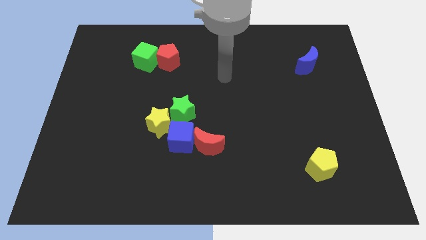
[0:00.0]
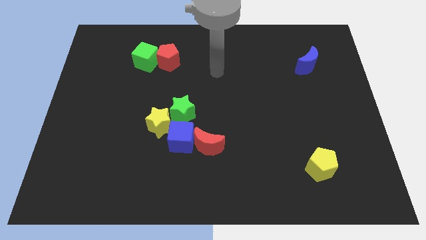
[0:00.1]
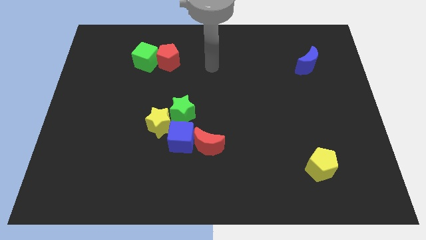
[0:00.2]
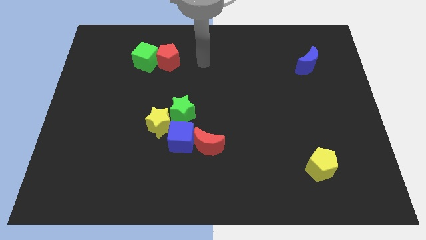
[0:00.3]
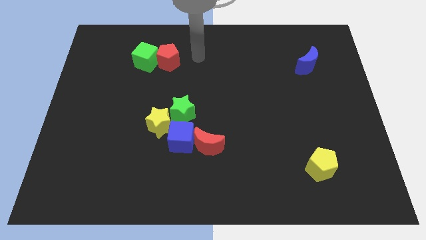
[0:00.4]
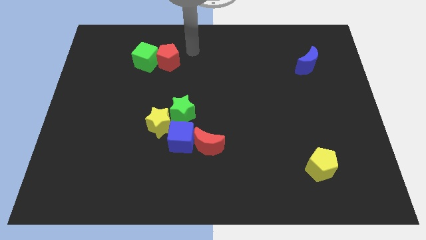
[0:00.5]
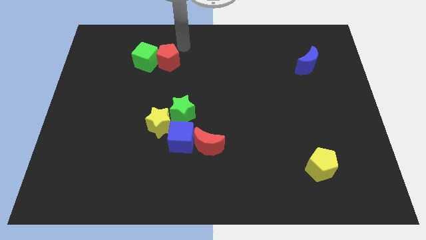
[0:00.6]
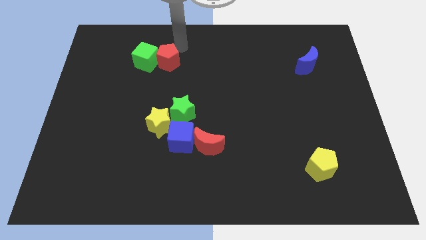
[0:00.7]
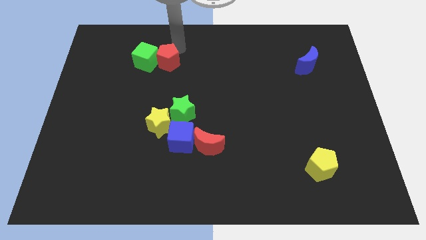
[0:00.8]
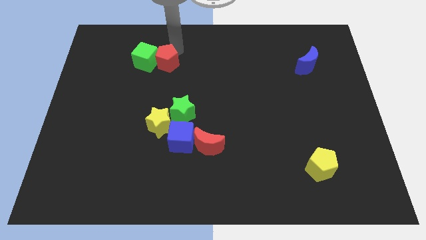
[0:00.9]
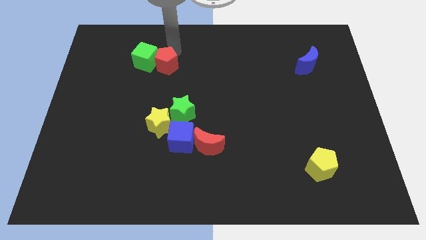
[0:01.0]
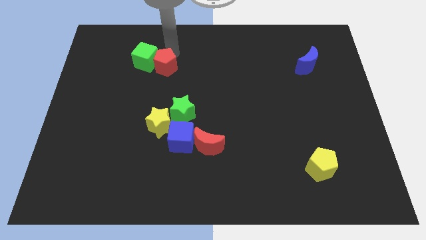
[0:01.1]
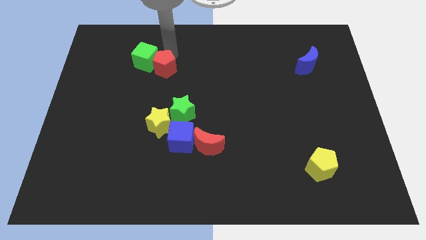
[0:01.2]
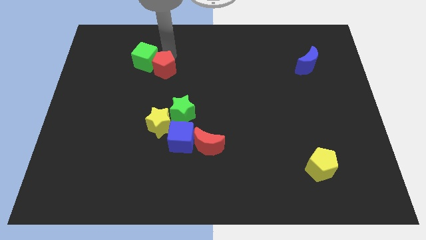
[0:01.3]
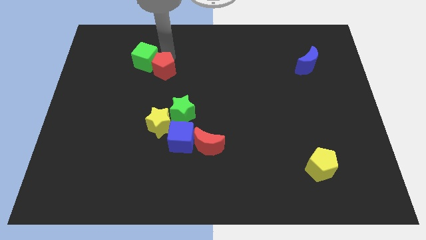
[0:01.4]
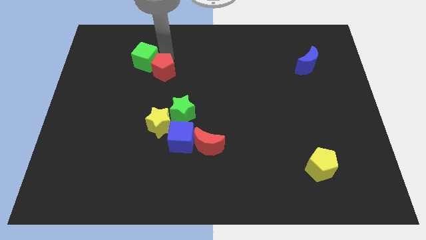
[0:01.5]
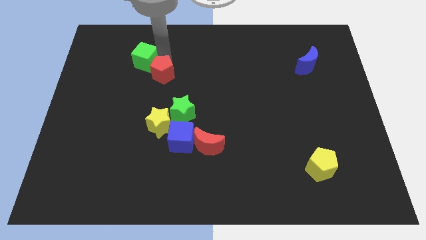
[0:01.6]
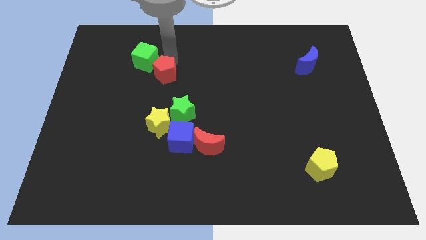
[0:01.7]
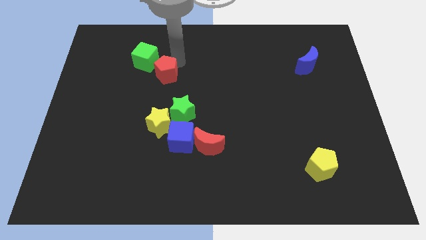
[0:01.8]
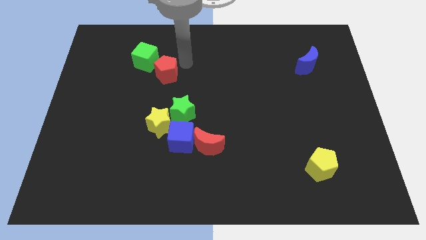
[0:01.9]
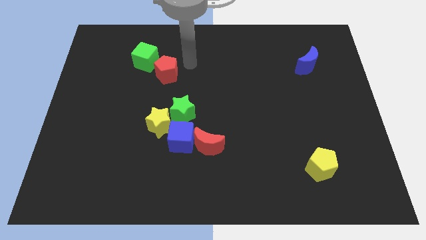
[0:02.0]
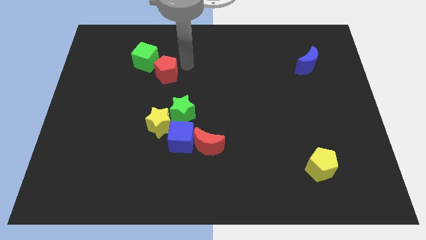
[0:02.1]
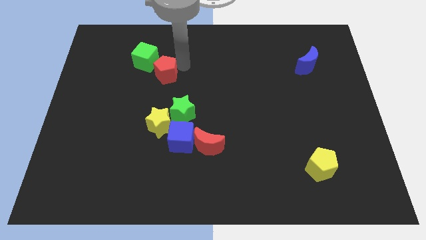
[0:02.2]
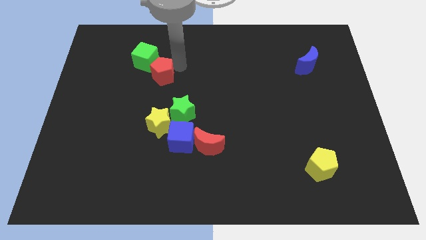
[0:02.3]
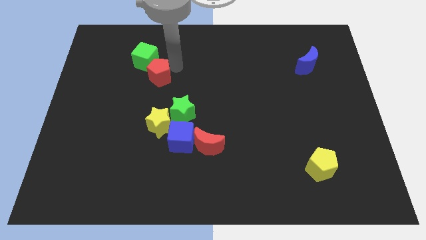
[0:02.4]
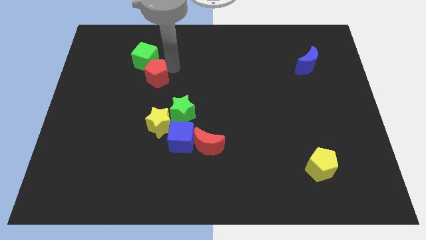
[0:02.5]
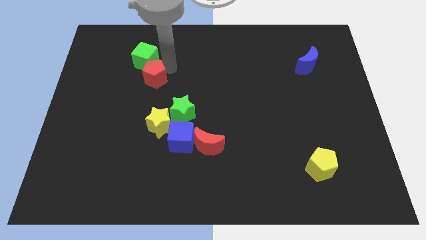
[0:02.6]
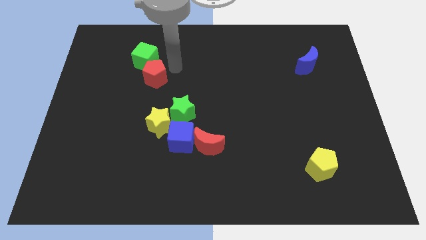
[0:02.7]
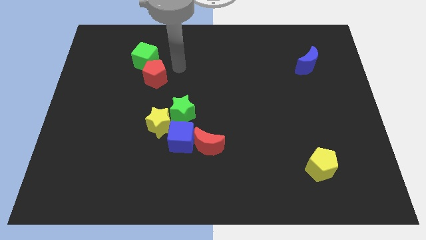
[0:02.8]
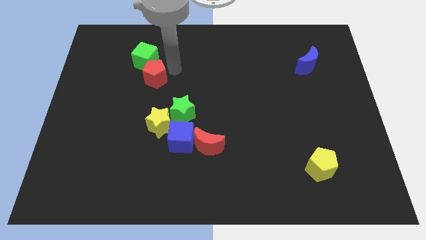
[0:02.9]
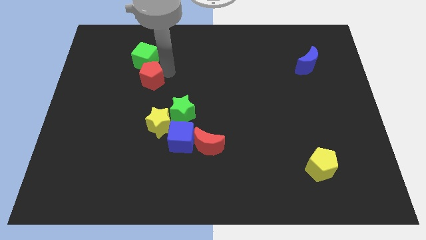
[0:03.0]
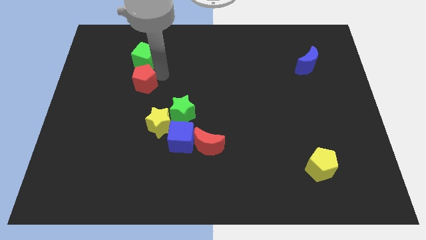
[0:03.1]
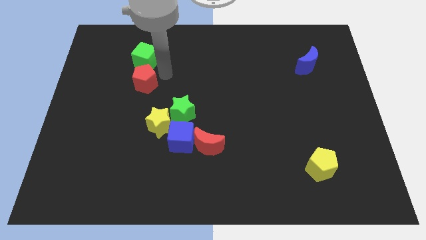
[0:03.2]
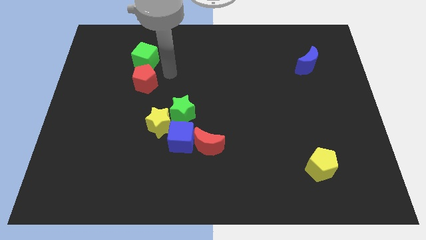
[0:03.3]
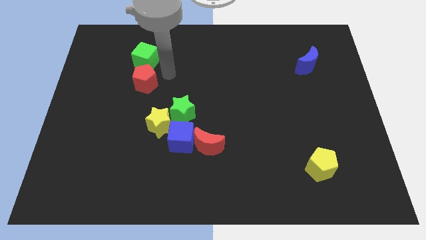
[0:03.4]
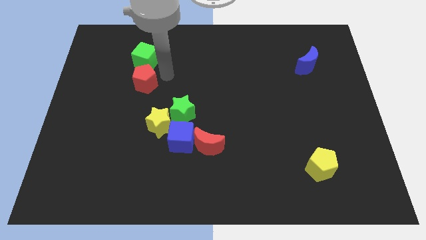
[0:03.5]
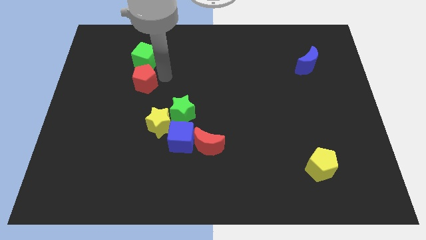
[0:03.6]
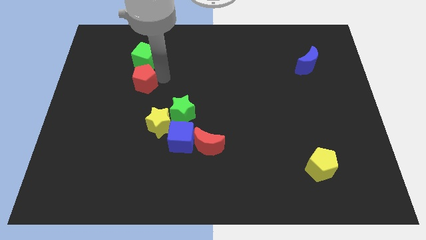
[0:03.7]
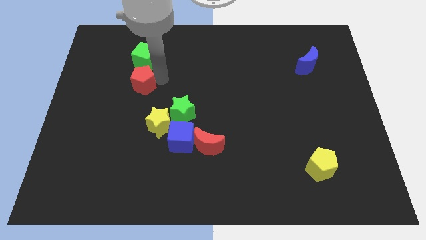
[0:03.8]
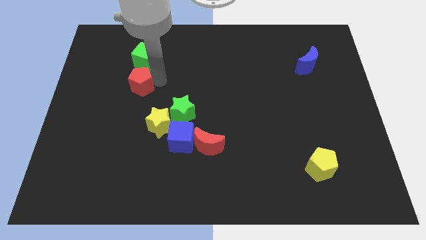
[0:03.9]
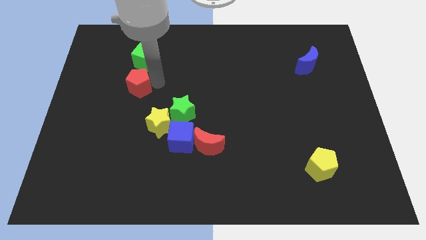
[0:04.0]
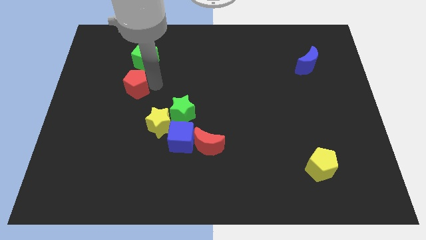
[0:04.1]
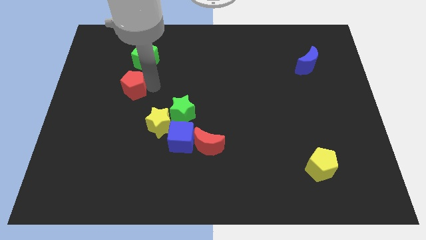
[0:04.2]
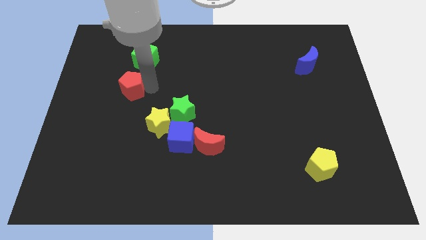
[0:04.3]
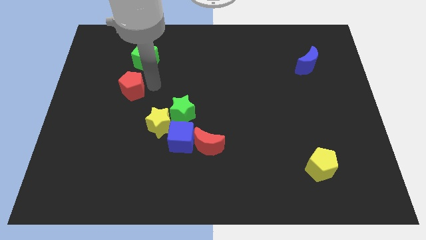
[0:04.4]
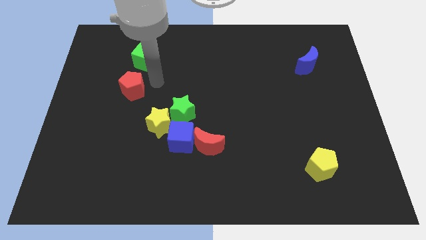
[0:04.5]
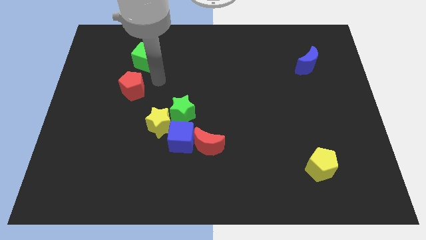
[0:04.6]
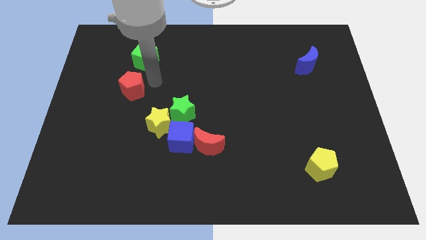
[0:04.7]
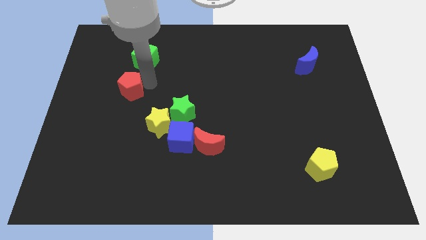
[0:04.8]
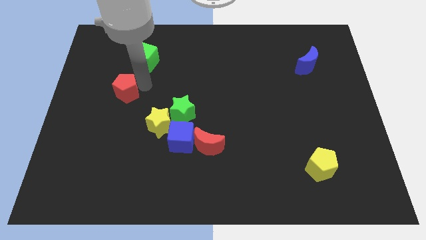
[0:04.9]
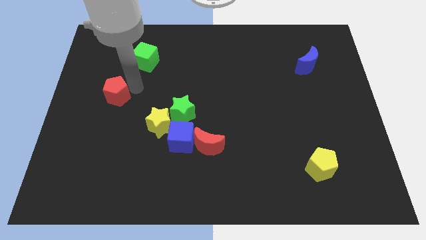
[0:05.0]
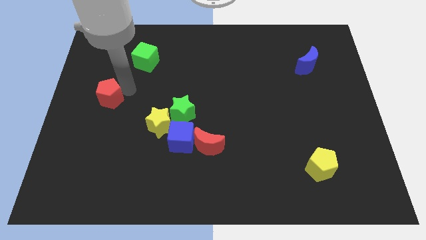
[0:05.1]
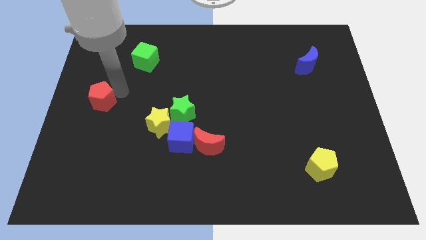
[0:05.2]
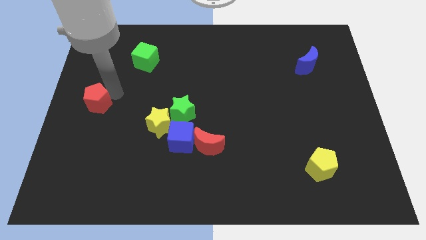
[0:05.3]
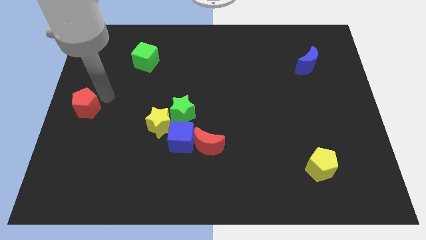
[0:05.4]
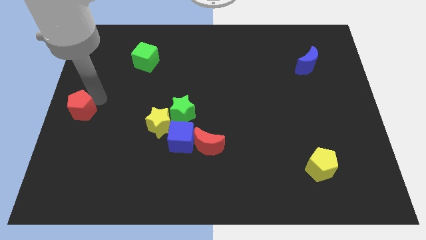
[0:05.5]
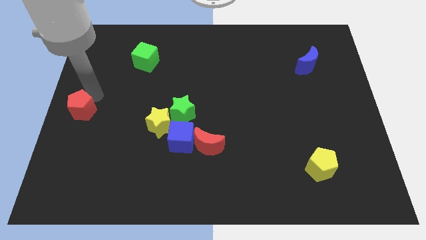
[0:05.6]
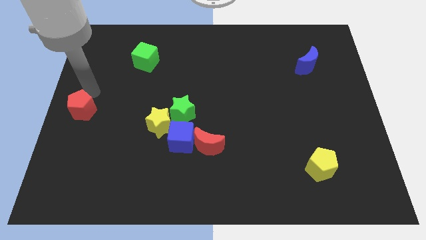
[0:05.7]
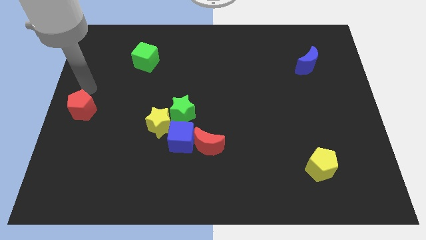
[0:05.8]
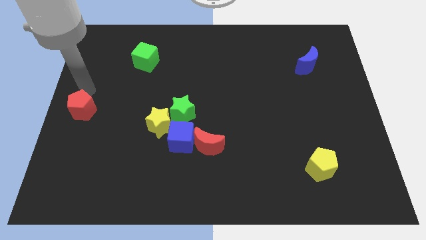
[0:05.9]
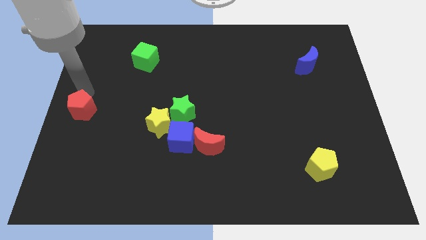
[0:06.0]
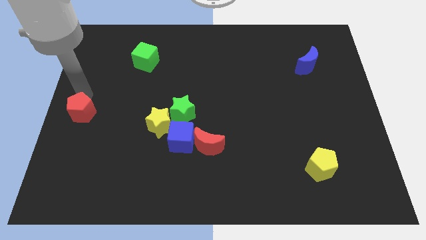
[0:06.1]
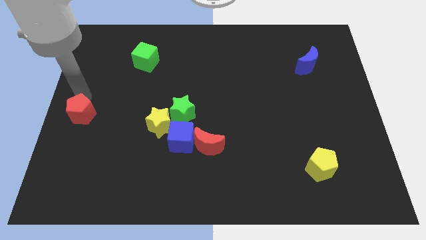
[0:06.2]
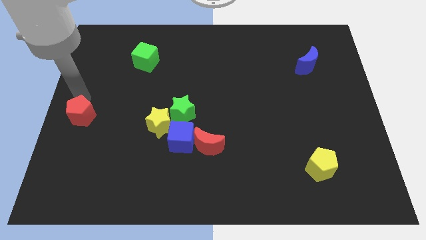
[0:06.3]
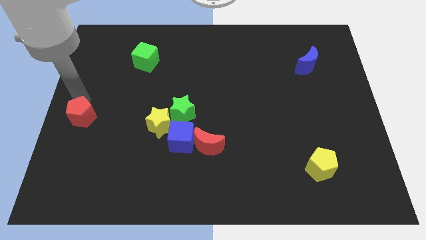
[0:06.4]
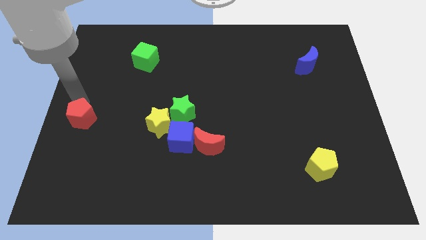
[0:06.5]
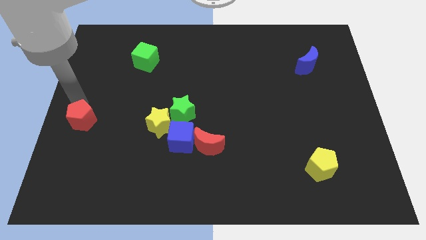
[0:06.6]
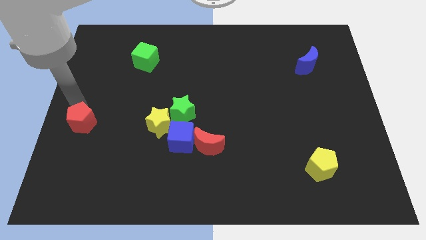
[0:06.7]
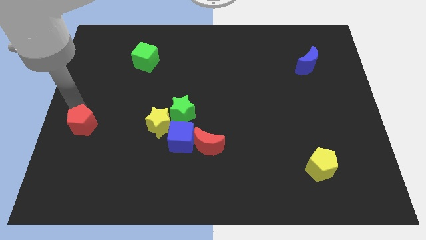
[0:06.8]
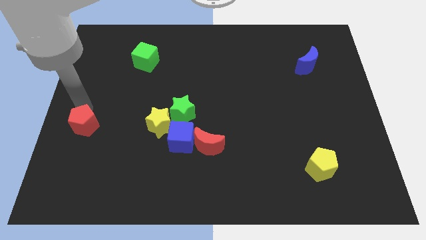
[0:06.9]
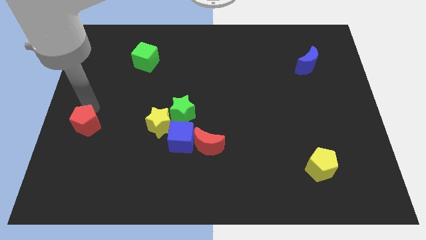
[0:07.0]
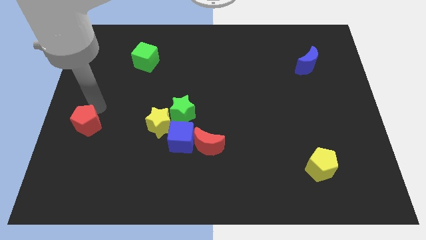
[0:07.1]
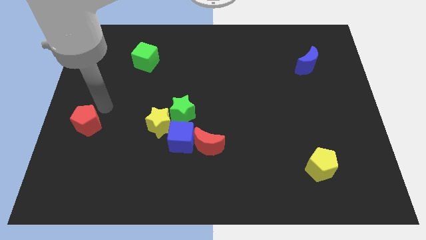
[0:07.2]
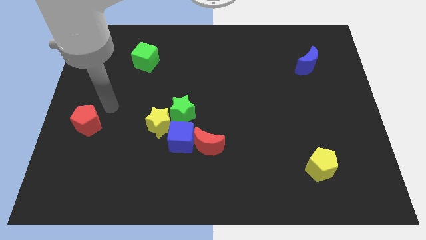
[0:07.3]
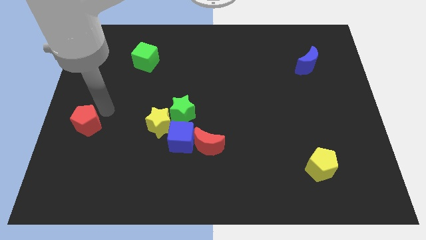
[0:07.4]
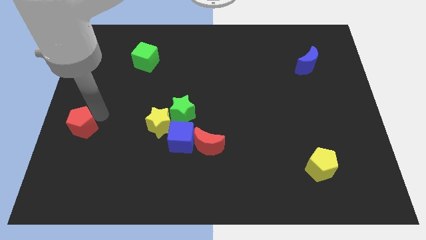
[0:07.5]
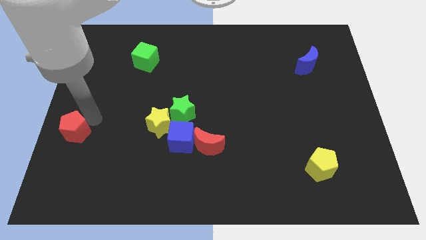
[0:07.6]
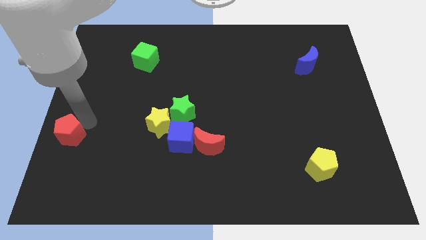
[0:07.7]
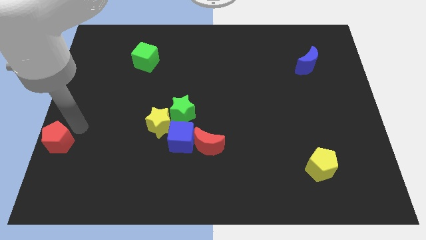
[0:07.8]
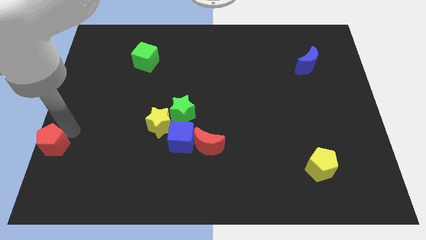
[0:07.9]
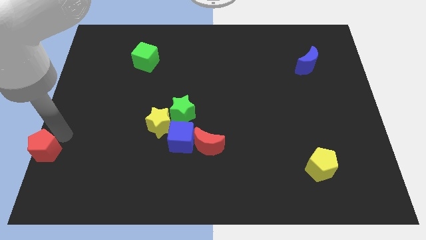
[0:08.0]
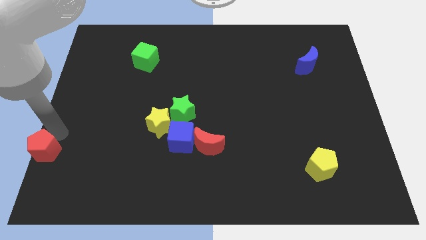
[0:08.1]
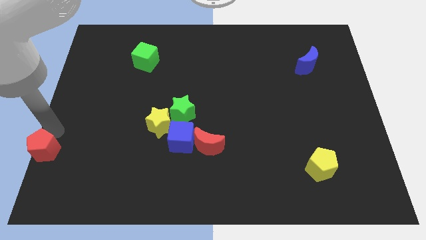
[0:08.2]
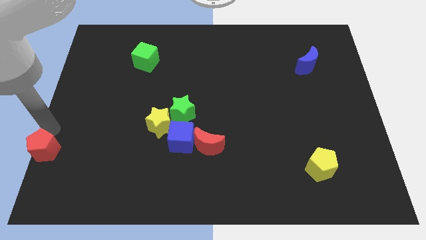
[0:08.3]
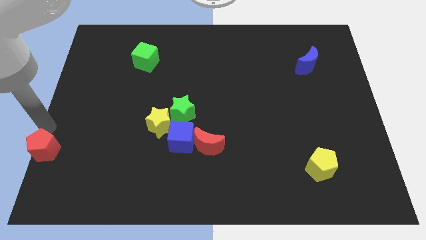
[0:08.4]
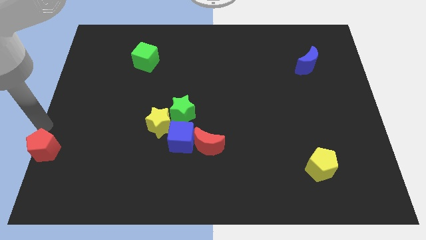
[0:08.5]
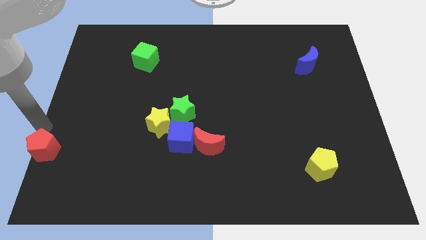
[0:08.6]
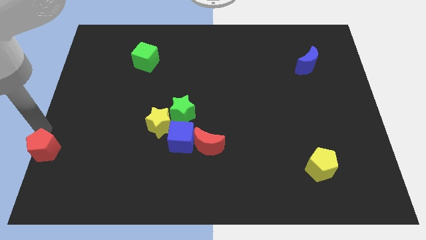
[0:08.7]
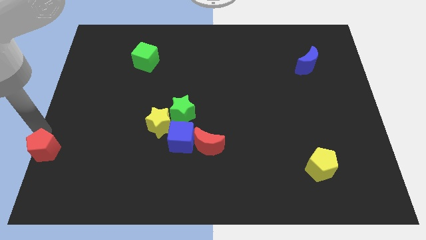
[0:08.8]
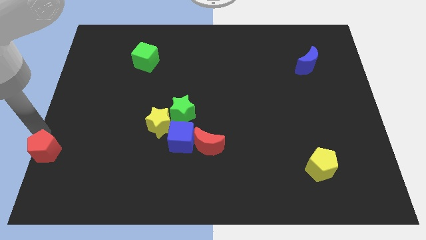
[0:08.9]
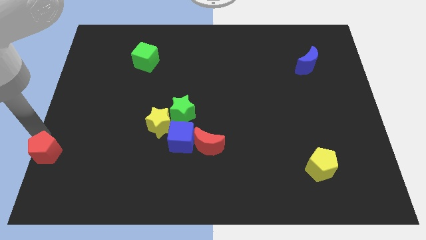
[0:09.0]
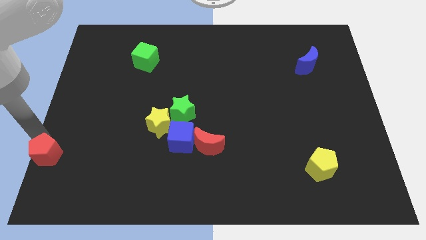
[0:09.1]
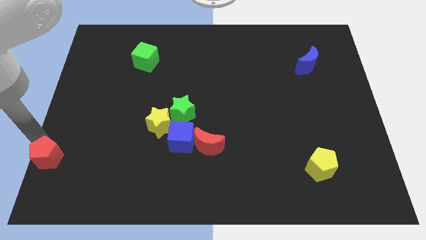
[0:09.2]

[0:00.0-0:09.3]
slide the red pentagon to the bottom left
